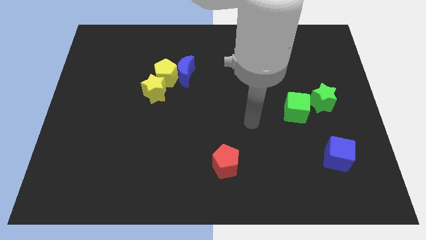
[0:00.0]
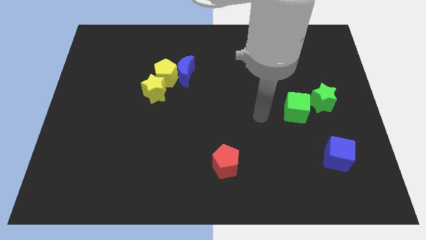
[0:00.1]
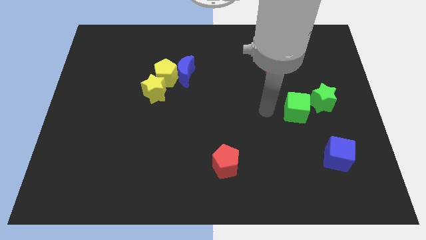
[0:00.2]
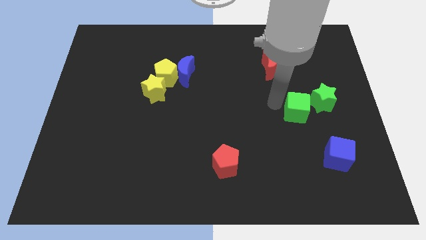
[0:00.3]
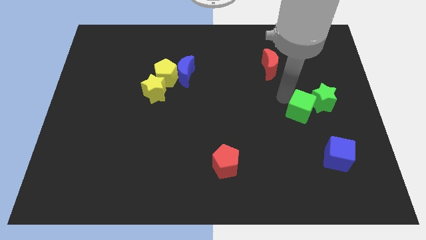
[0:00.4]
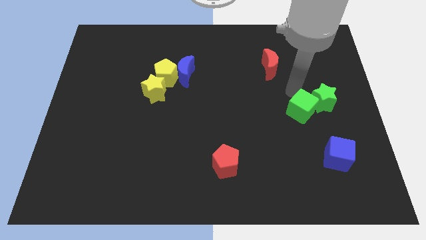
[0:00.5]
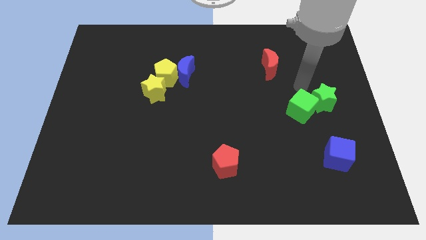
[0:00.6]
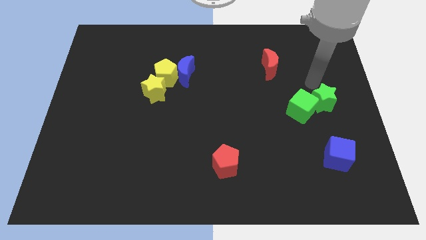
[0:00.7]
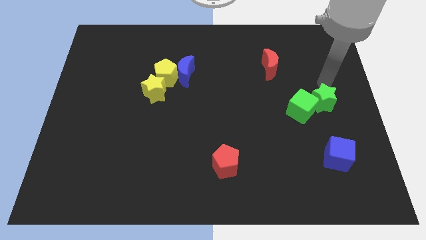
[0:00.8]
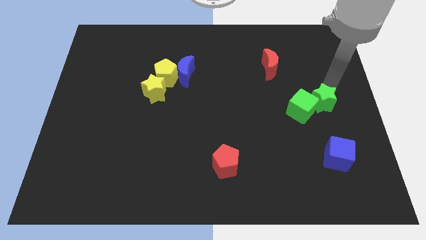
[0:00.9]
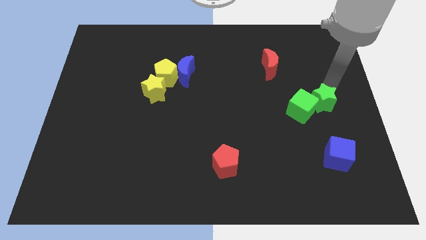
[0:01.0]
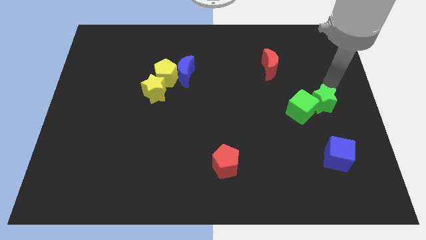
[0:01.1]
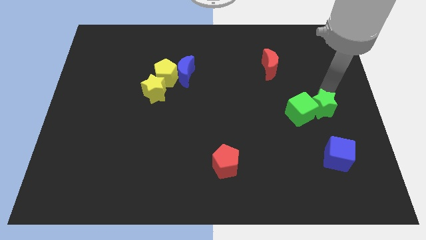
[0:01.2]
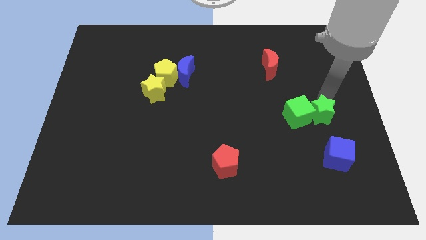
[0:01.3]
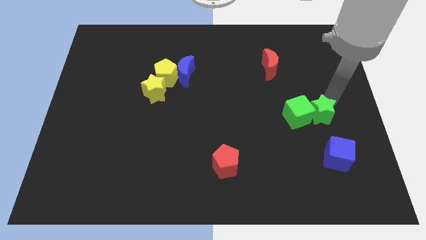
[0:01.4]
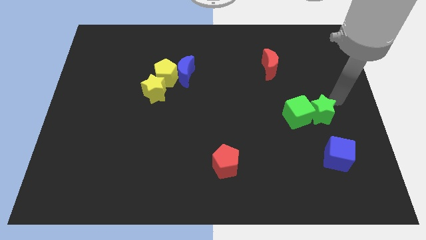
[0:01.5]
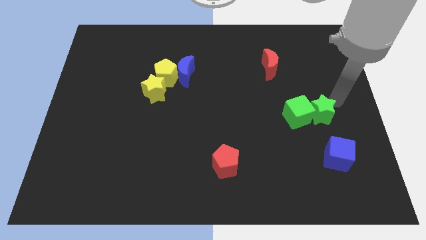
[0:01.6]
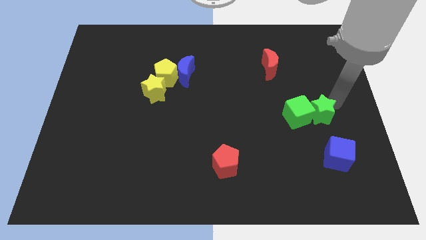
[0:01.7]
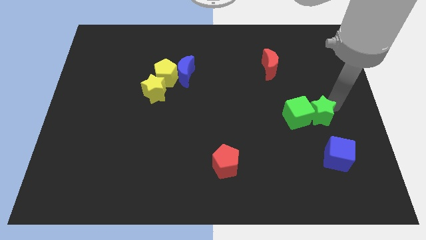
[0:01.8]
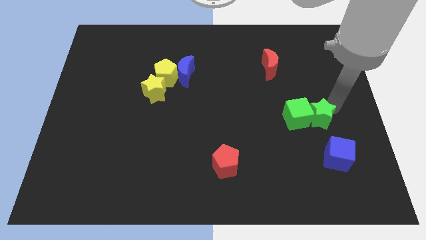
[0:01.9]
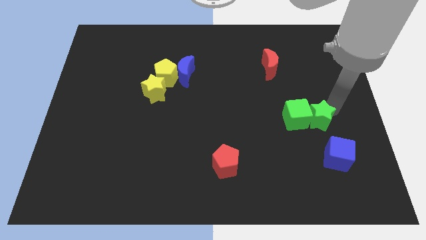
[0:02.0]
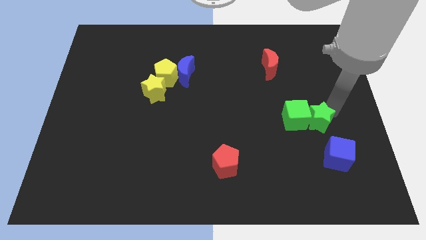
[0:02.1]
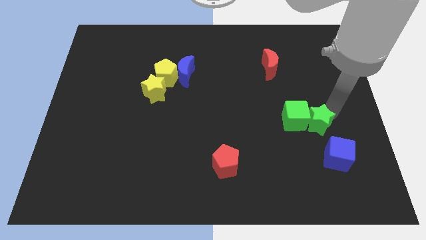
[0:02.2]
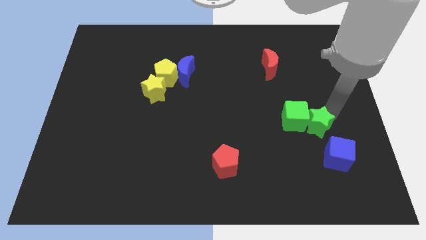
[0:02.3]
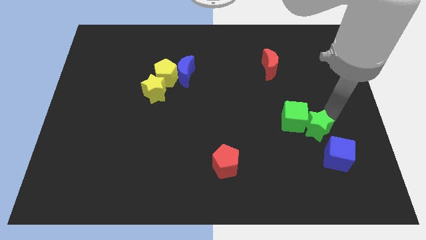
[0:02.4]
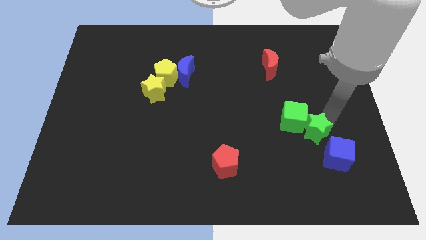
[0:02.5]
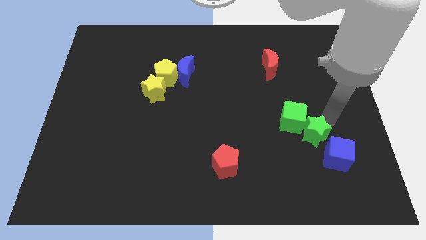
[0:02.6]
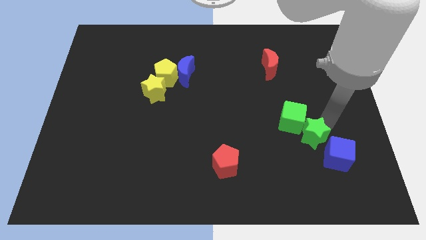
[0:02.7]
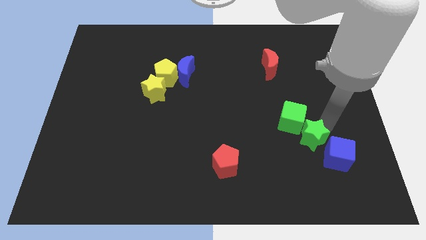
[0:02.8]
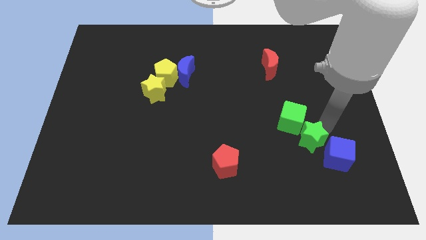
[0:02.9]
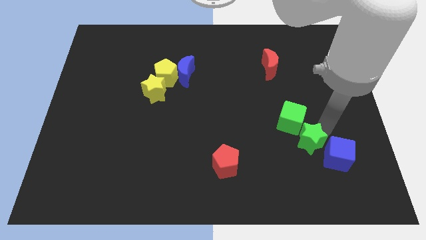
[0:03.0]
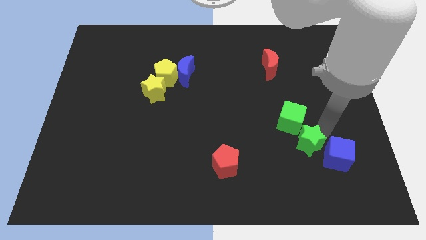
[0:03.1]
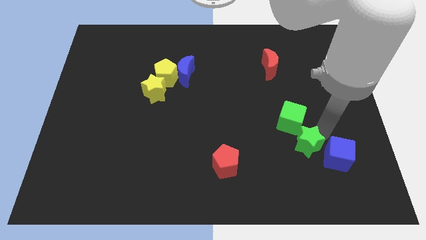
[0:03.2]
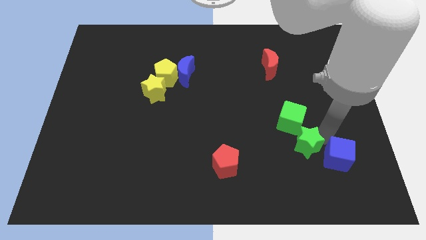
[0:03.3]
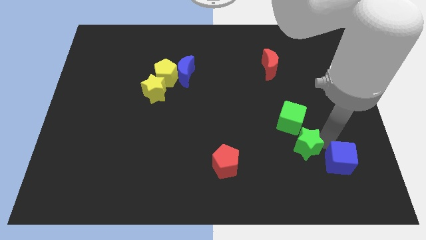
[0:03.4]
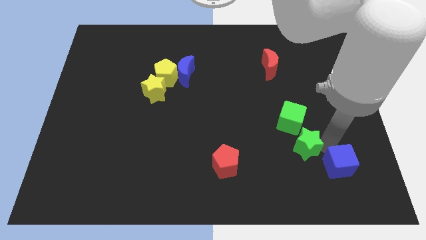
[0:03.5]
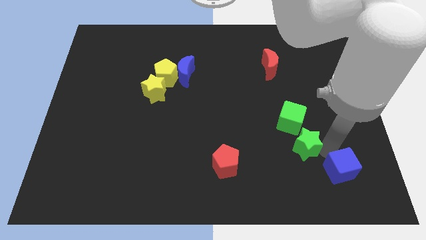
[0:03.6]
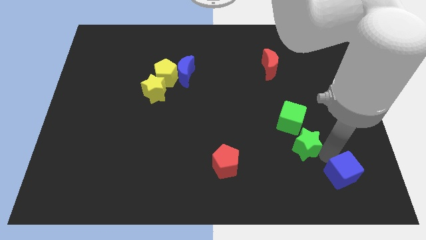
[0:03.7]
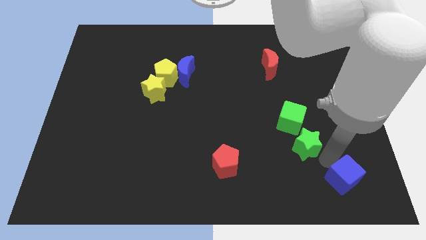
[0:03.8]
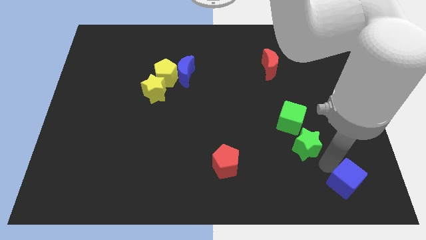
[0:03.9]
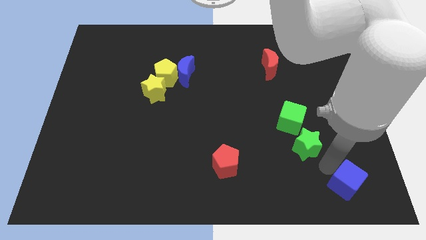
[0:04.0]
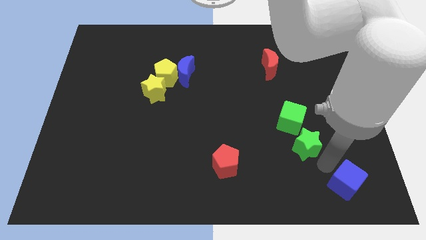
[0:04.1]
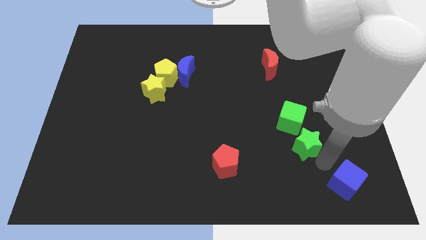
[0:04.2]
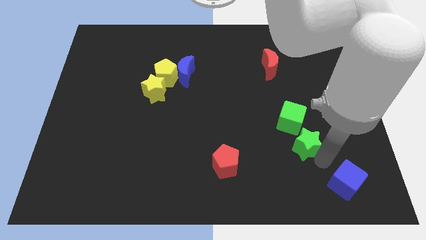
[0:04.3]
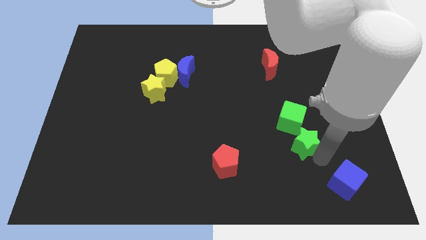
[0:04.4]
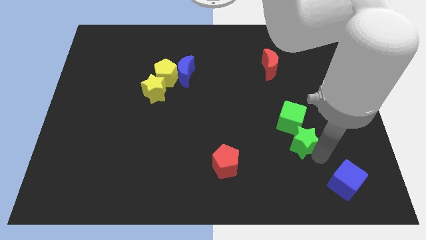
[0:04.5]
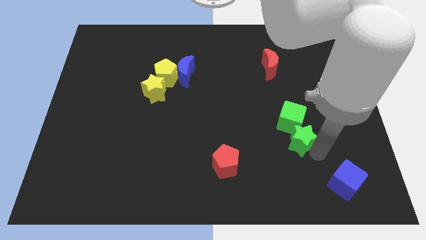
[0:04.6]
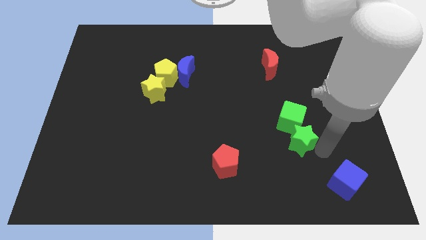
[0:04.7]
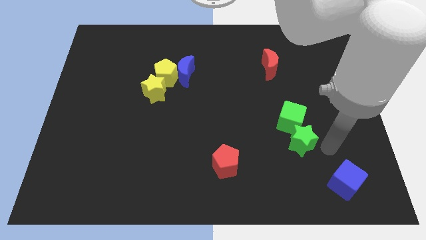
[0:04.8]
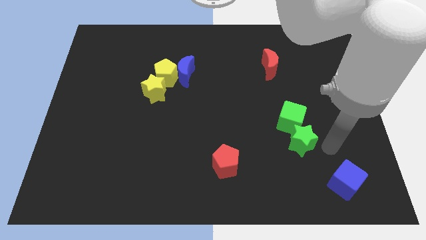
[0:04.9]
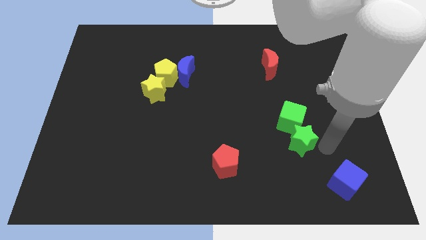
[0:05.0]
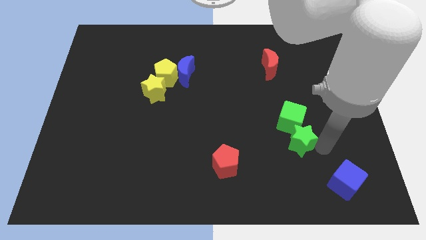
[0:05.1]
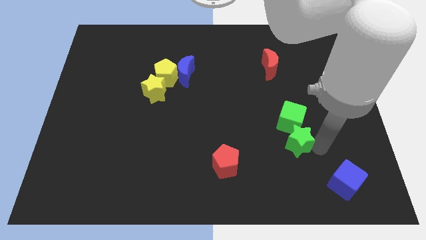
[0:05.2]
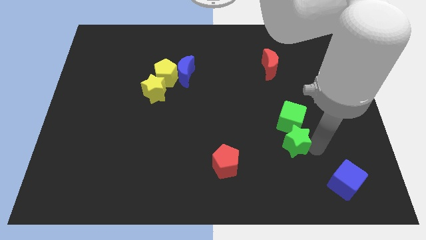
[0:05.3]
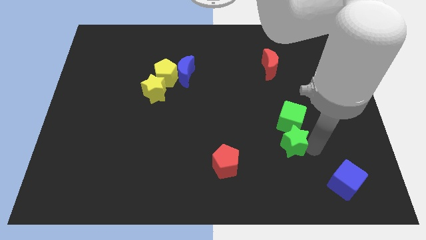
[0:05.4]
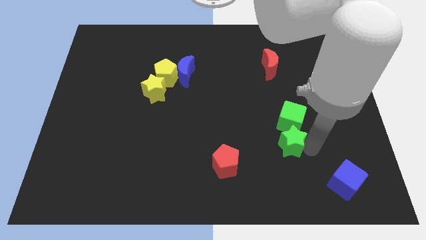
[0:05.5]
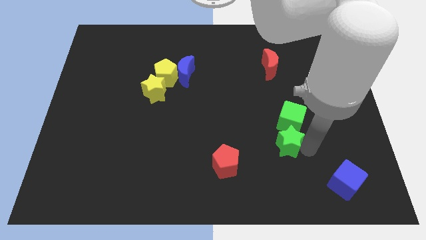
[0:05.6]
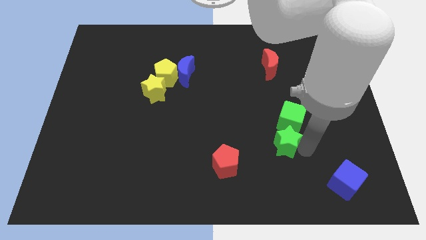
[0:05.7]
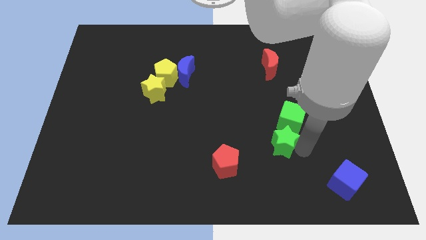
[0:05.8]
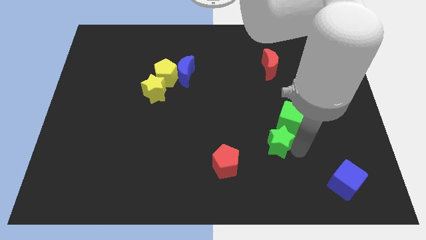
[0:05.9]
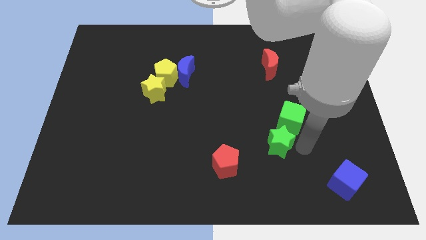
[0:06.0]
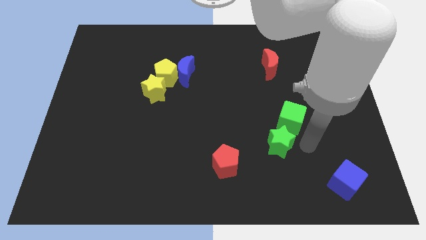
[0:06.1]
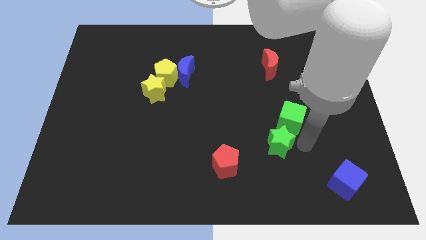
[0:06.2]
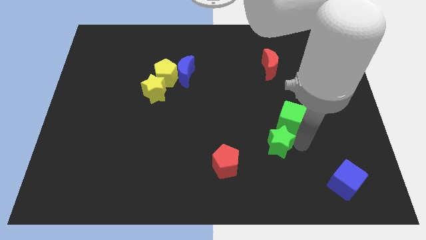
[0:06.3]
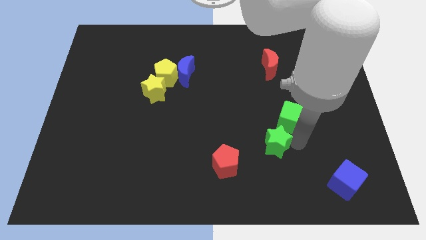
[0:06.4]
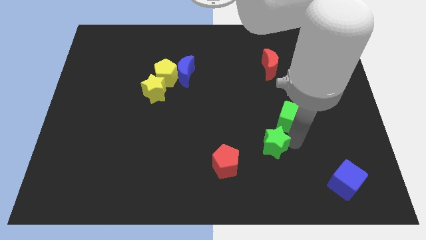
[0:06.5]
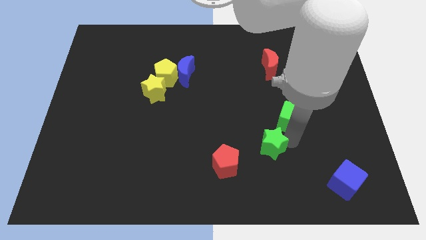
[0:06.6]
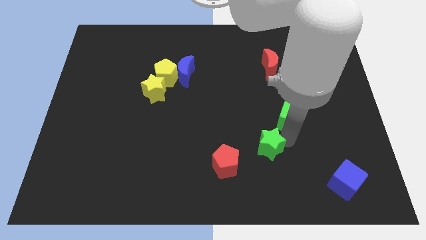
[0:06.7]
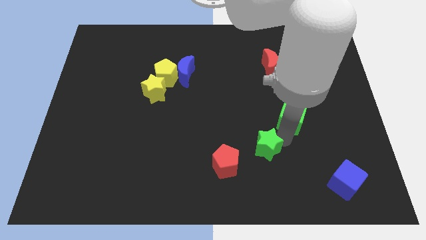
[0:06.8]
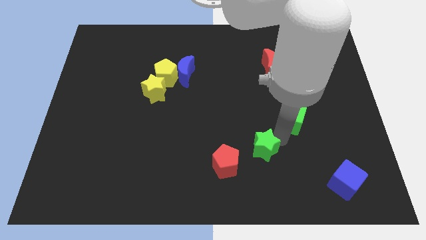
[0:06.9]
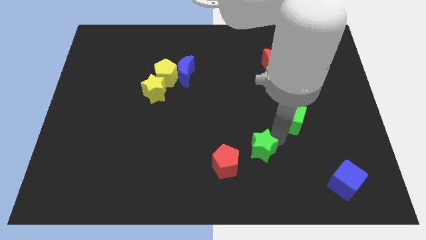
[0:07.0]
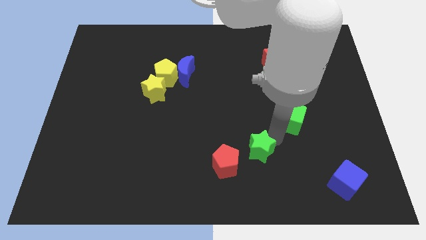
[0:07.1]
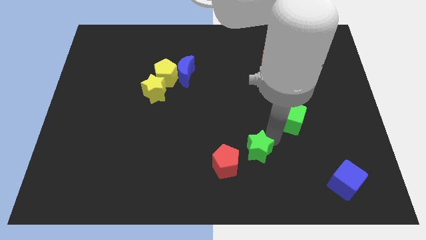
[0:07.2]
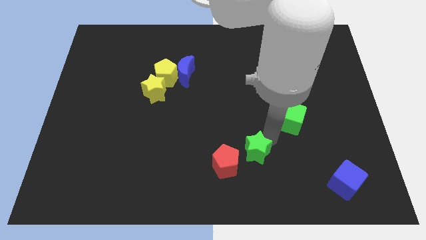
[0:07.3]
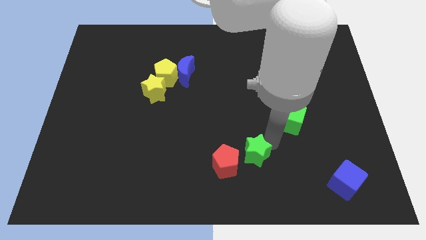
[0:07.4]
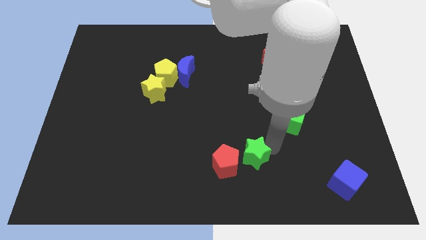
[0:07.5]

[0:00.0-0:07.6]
push the green star to the red pentagon
